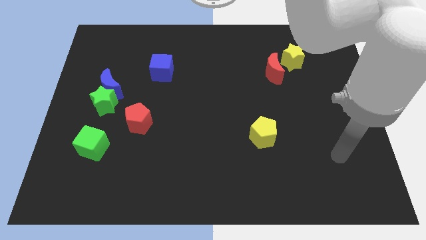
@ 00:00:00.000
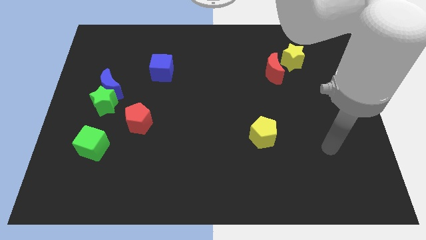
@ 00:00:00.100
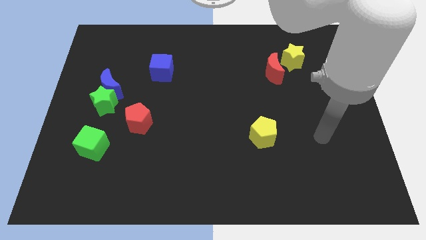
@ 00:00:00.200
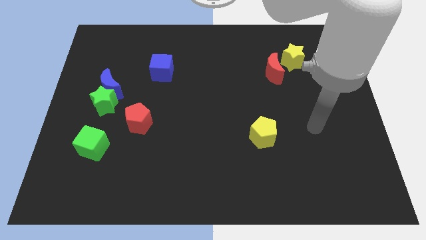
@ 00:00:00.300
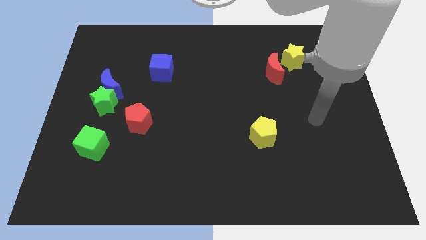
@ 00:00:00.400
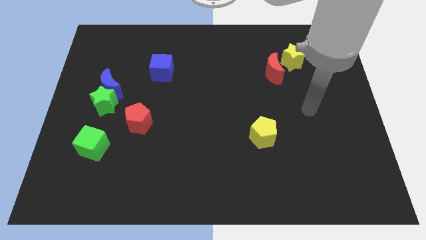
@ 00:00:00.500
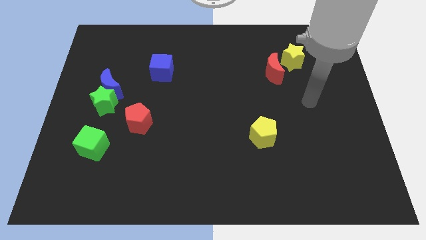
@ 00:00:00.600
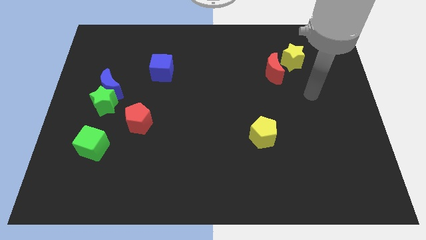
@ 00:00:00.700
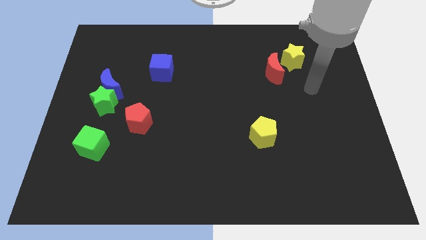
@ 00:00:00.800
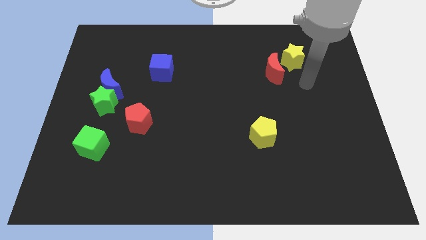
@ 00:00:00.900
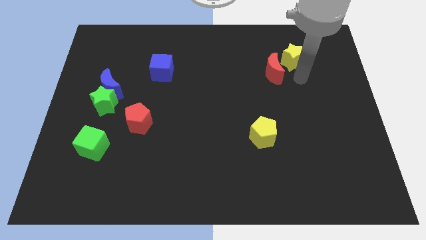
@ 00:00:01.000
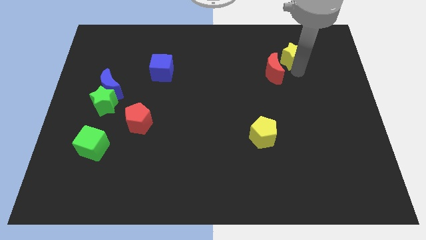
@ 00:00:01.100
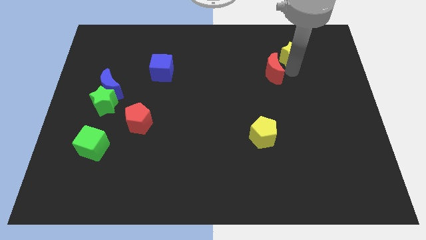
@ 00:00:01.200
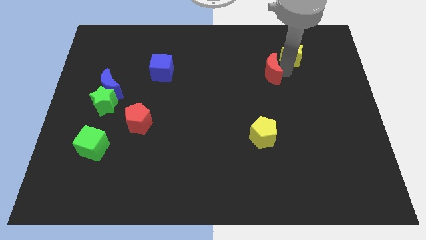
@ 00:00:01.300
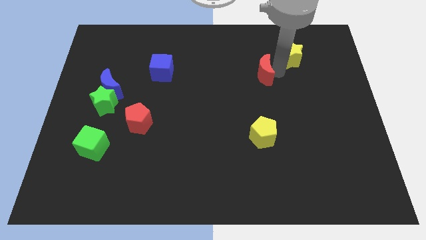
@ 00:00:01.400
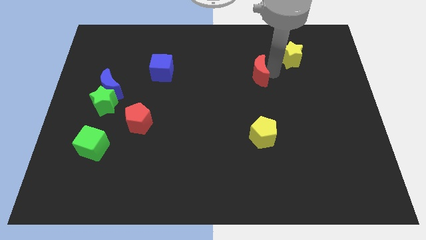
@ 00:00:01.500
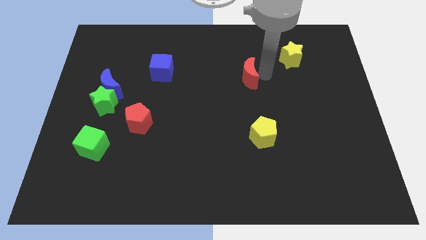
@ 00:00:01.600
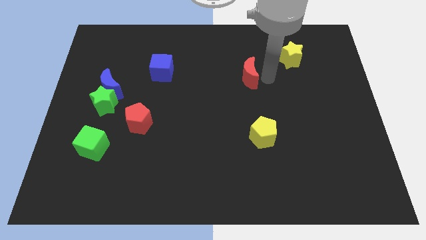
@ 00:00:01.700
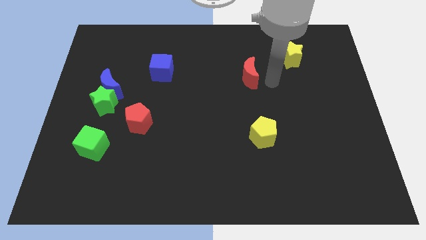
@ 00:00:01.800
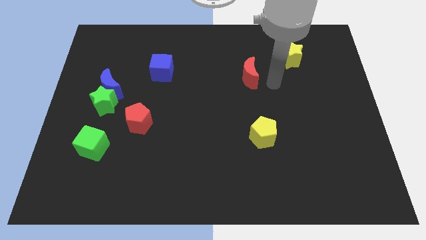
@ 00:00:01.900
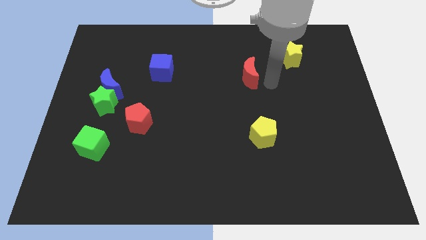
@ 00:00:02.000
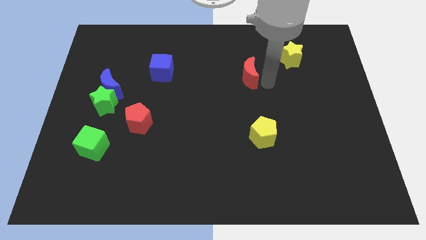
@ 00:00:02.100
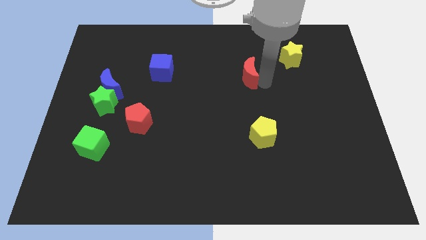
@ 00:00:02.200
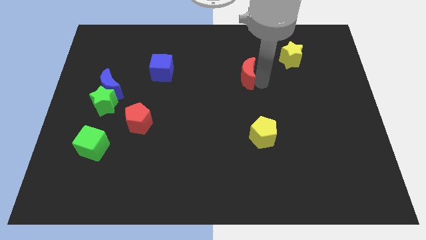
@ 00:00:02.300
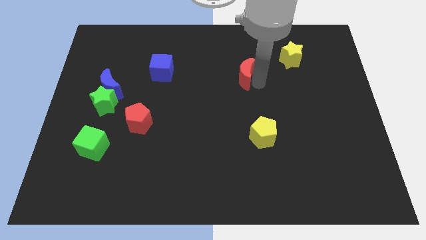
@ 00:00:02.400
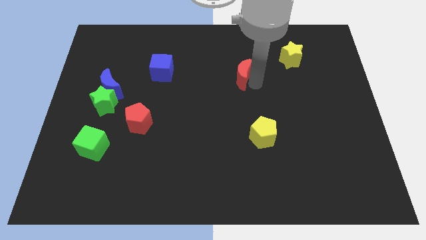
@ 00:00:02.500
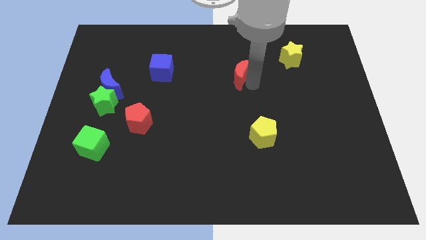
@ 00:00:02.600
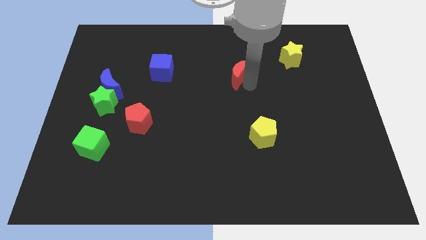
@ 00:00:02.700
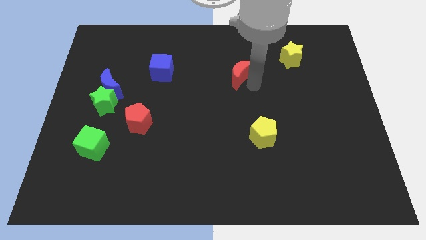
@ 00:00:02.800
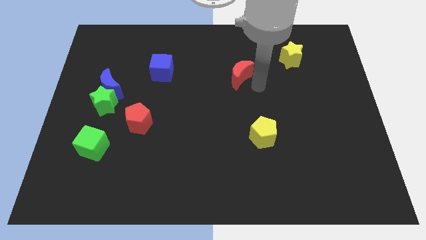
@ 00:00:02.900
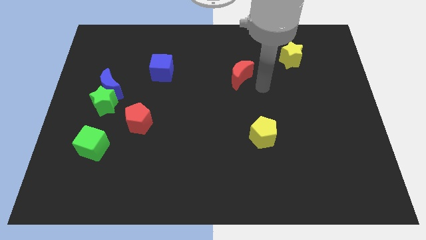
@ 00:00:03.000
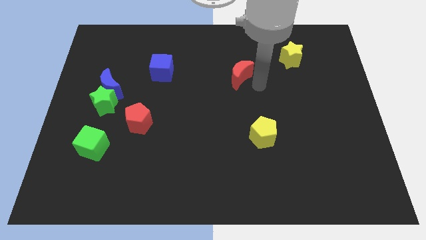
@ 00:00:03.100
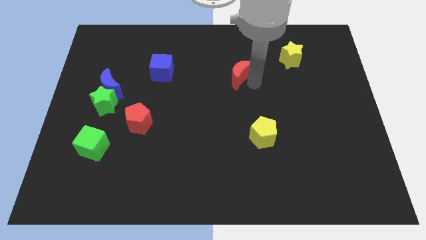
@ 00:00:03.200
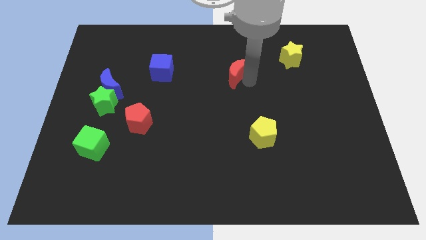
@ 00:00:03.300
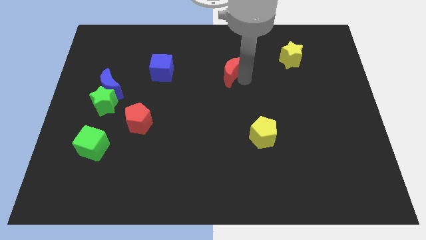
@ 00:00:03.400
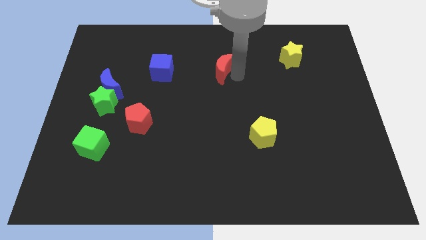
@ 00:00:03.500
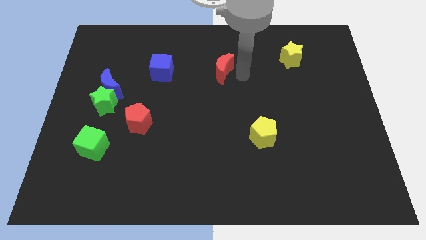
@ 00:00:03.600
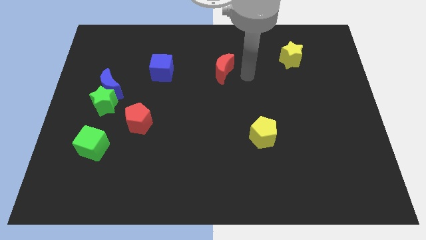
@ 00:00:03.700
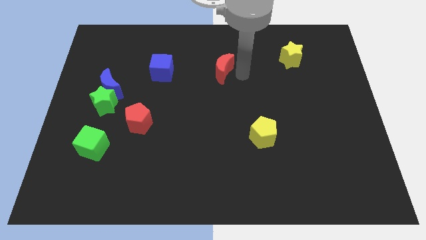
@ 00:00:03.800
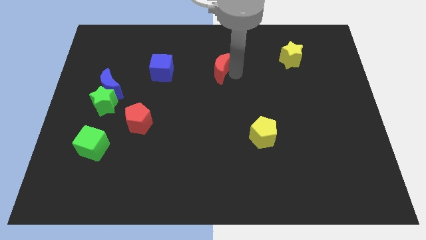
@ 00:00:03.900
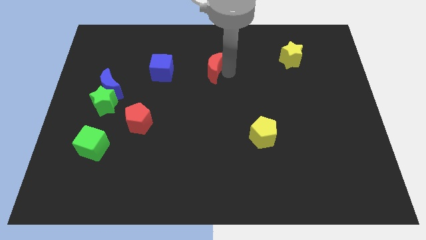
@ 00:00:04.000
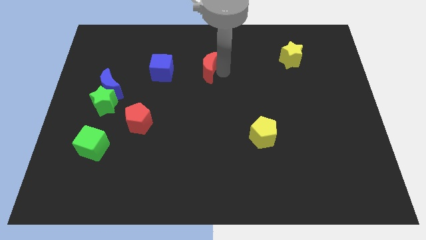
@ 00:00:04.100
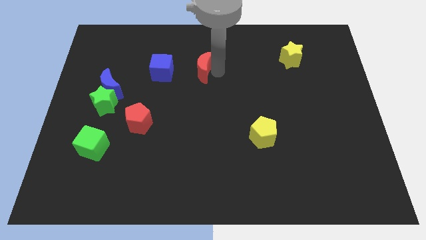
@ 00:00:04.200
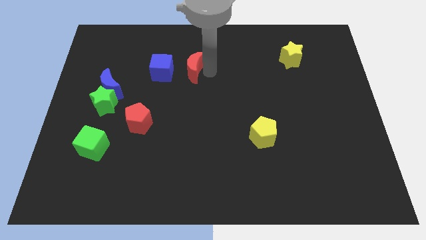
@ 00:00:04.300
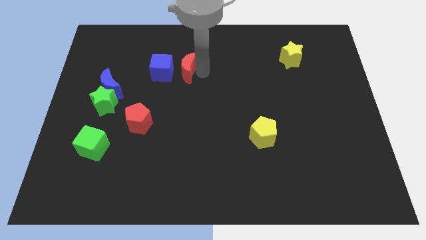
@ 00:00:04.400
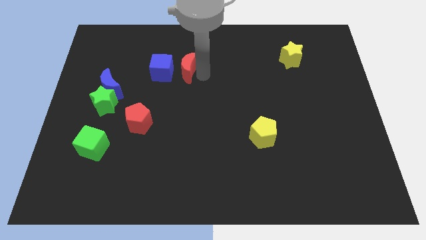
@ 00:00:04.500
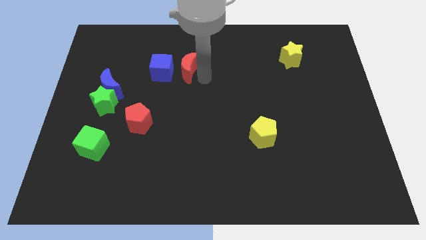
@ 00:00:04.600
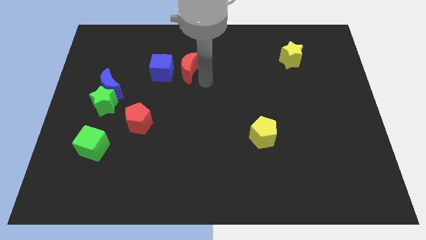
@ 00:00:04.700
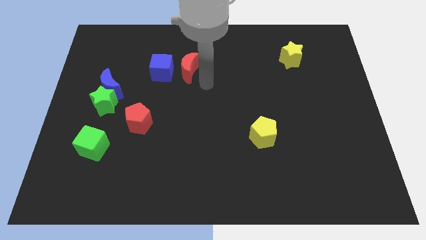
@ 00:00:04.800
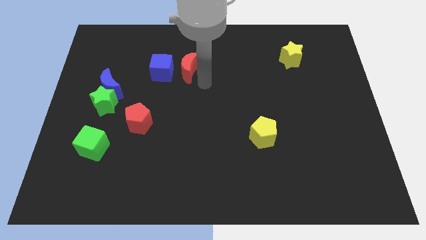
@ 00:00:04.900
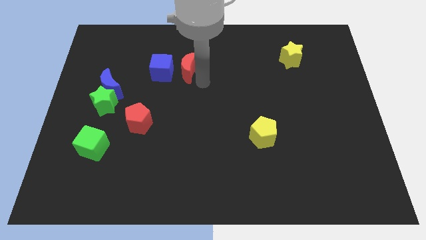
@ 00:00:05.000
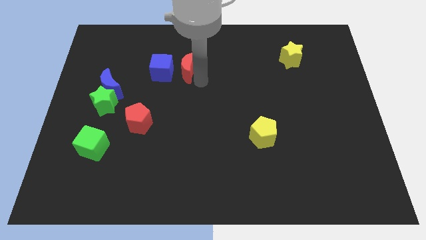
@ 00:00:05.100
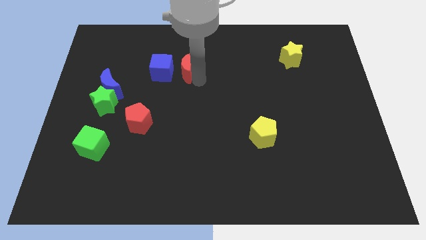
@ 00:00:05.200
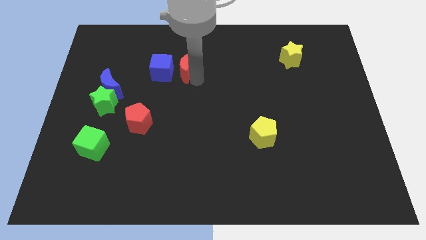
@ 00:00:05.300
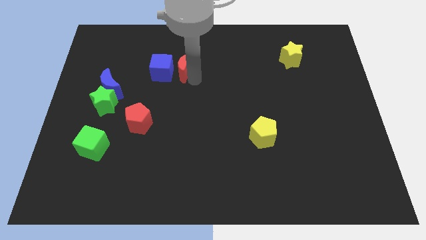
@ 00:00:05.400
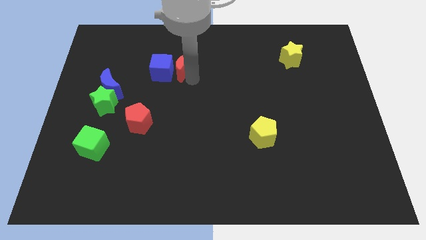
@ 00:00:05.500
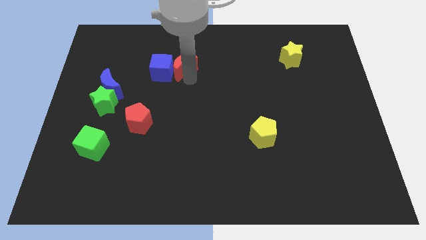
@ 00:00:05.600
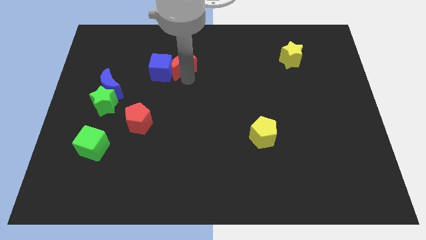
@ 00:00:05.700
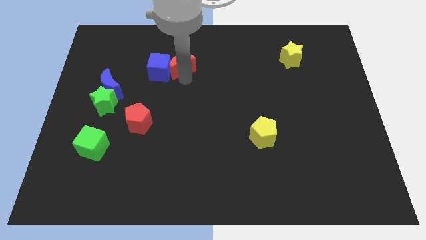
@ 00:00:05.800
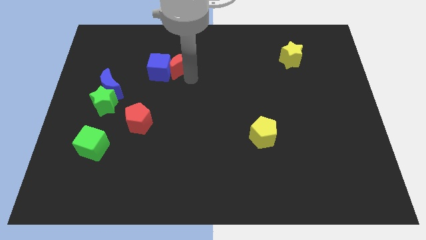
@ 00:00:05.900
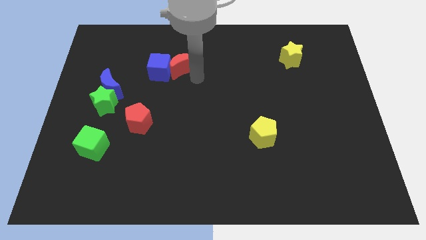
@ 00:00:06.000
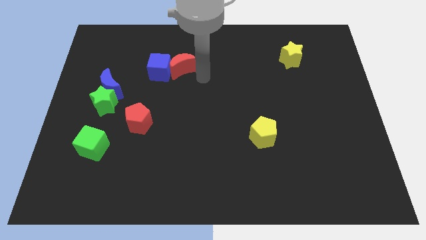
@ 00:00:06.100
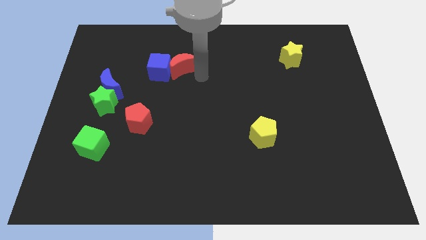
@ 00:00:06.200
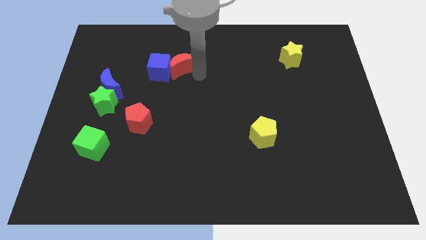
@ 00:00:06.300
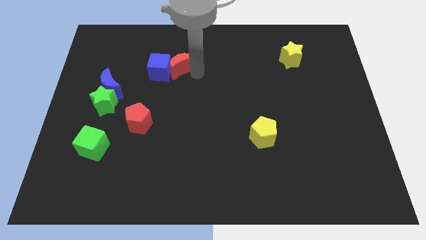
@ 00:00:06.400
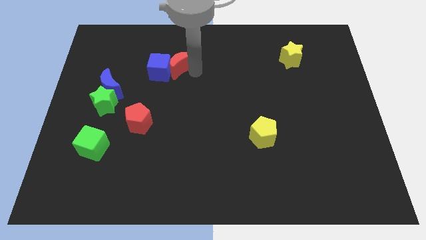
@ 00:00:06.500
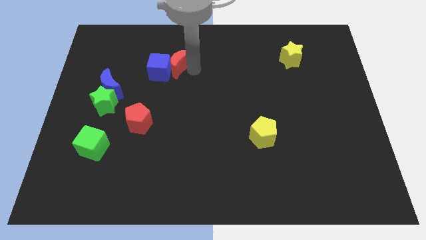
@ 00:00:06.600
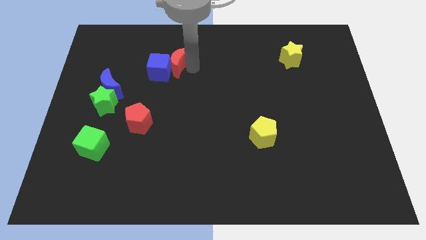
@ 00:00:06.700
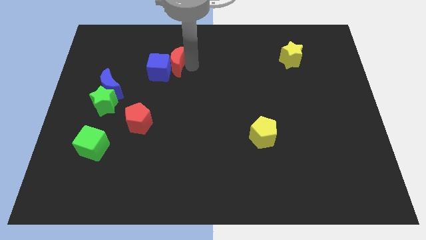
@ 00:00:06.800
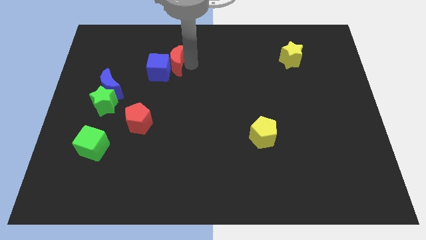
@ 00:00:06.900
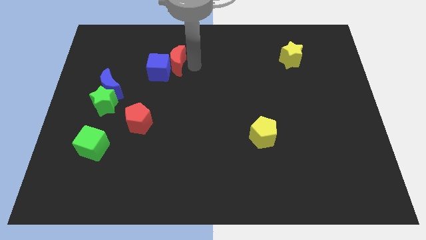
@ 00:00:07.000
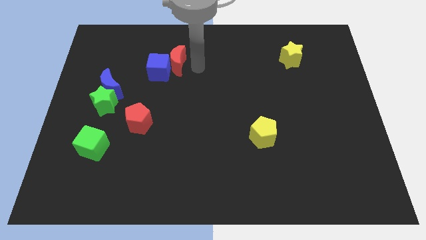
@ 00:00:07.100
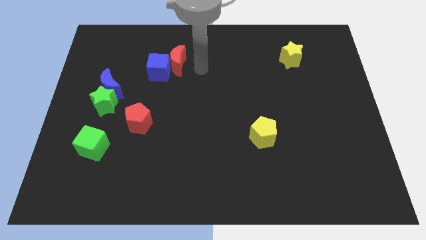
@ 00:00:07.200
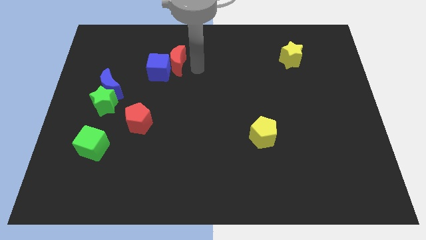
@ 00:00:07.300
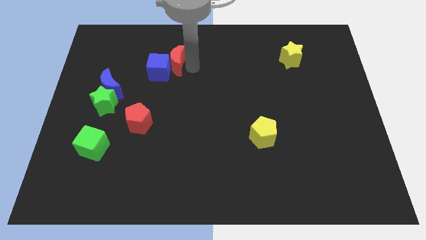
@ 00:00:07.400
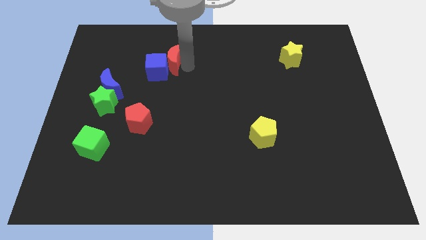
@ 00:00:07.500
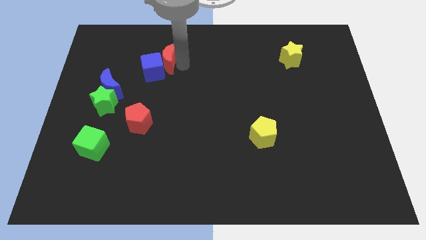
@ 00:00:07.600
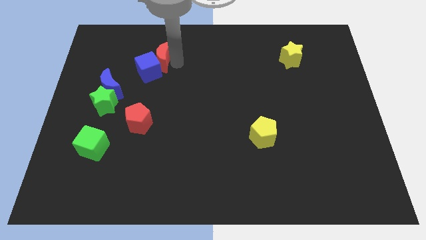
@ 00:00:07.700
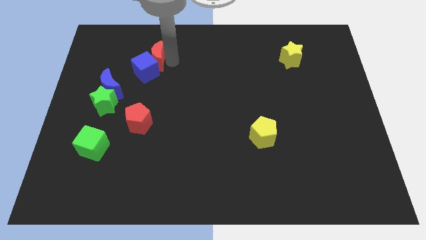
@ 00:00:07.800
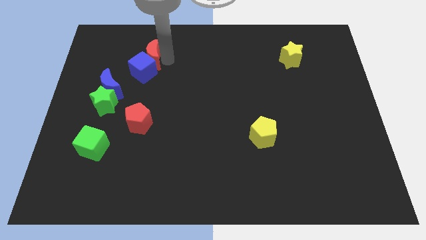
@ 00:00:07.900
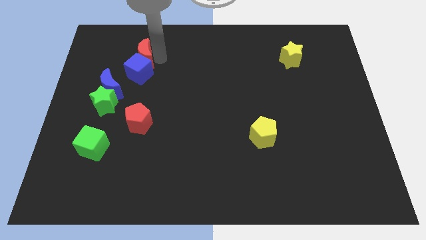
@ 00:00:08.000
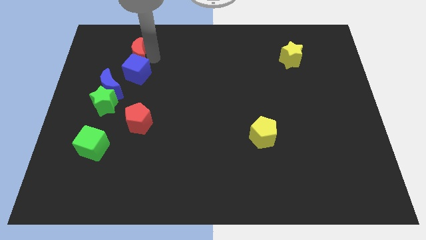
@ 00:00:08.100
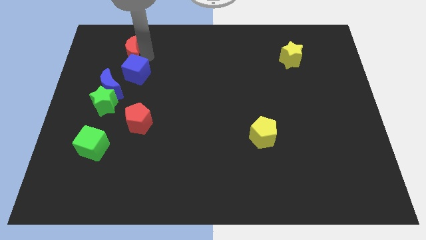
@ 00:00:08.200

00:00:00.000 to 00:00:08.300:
put the red moon to the top side of the blue moon
